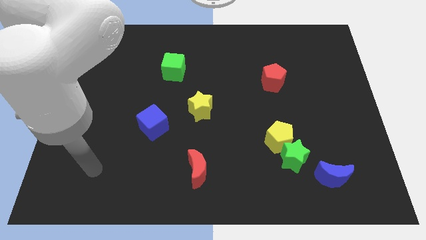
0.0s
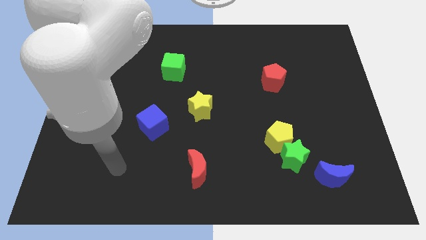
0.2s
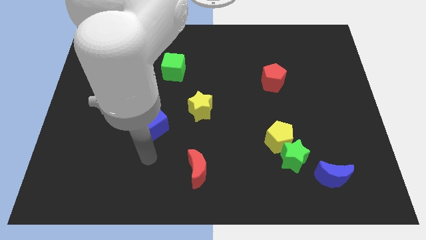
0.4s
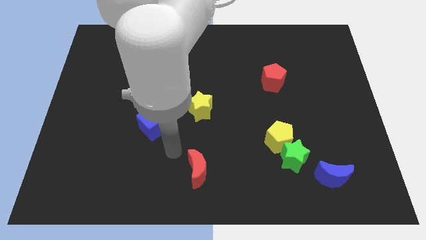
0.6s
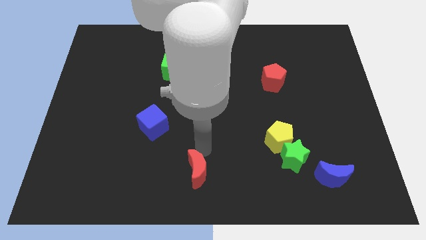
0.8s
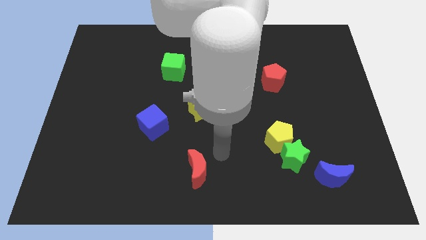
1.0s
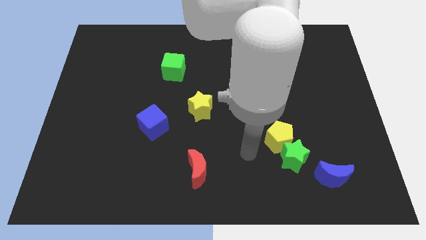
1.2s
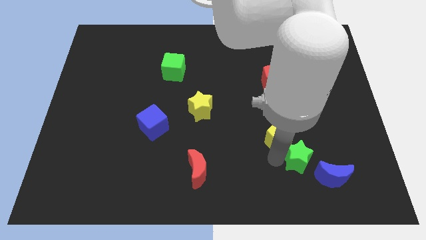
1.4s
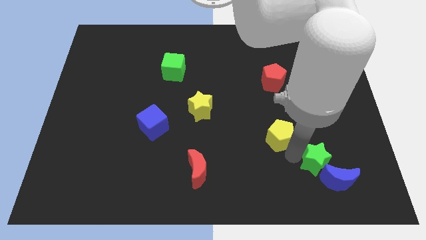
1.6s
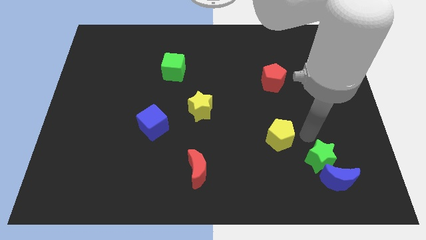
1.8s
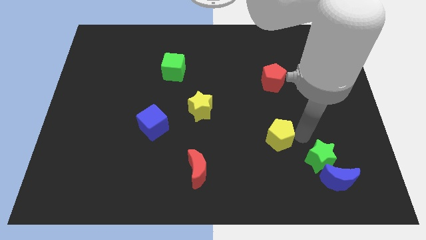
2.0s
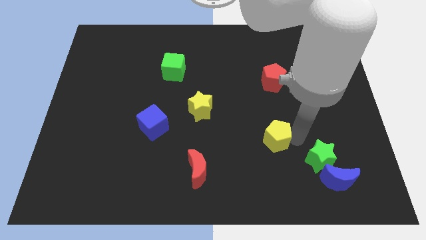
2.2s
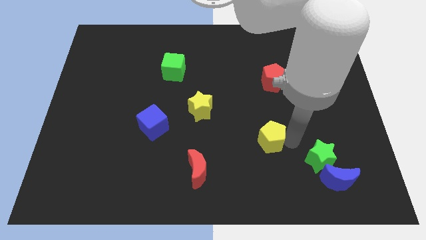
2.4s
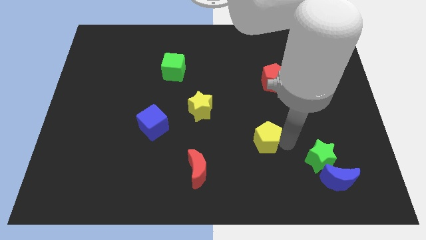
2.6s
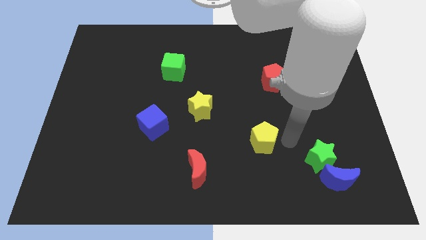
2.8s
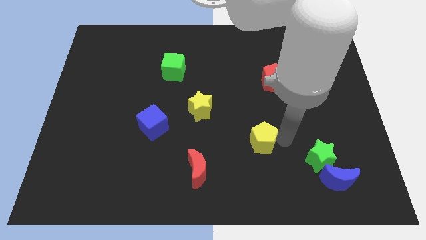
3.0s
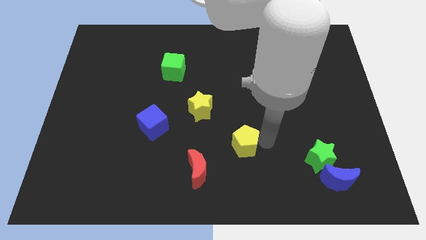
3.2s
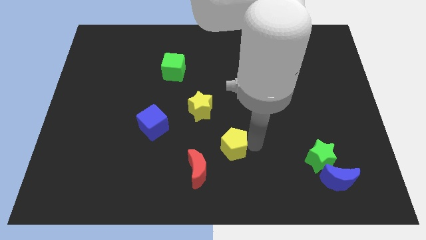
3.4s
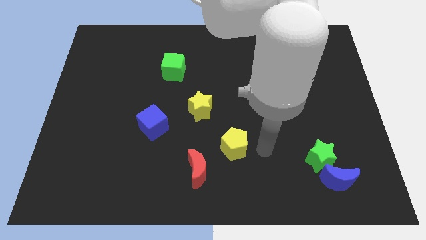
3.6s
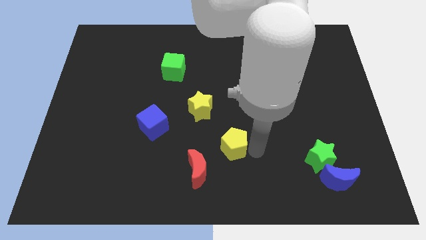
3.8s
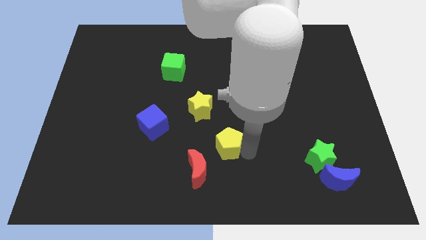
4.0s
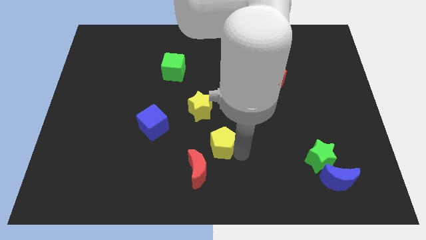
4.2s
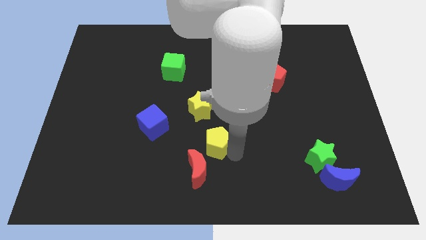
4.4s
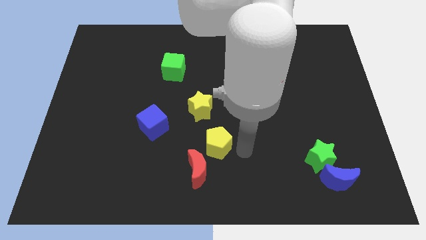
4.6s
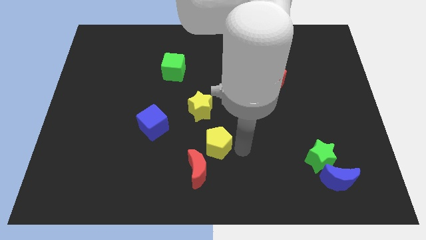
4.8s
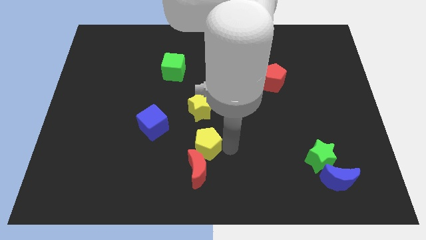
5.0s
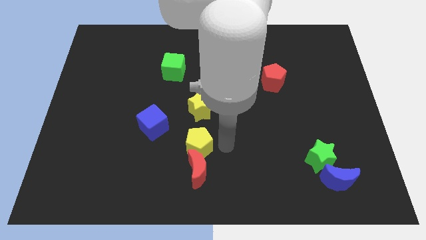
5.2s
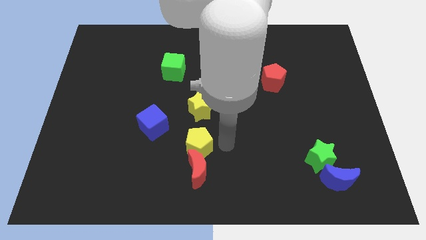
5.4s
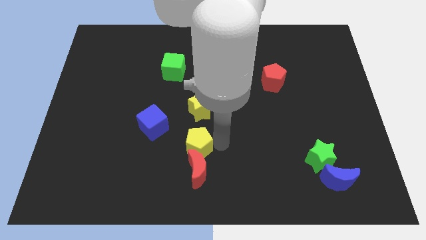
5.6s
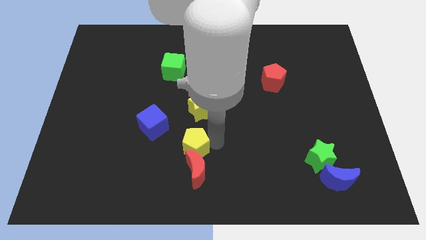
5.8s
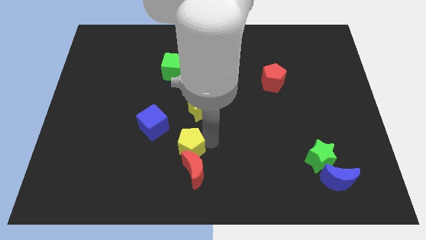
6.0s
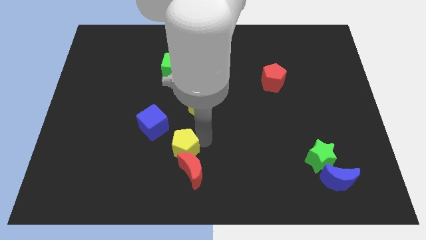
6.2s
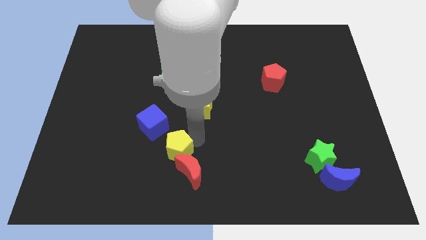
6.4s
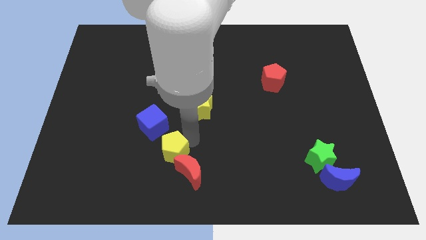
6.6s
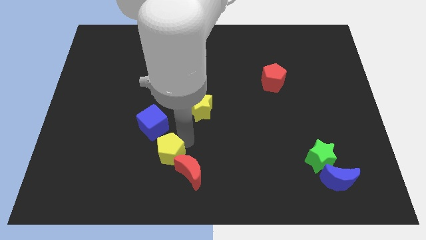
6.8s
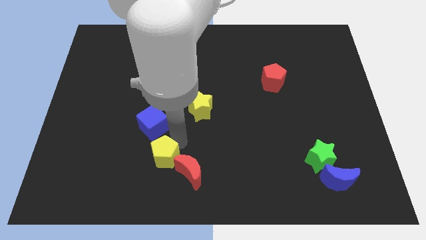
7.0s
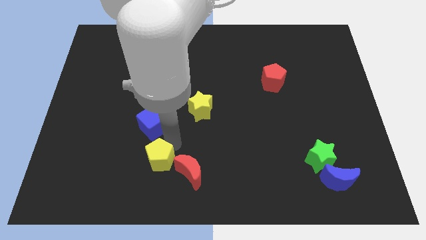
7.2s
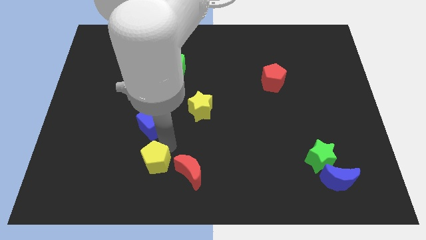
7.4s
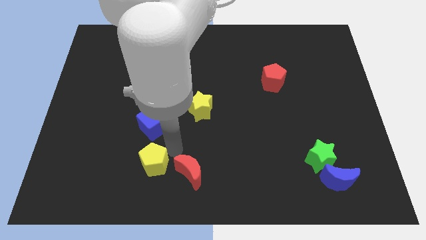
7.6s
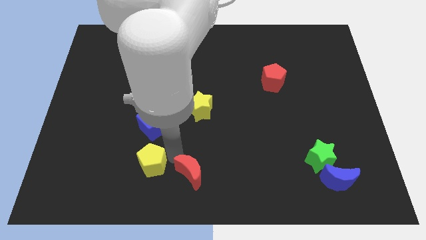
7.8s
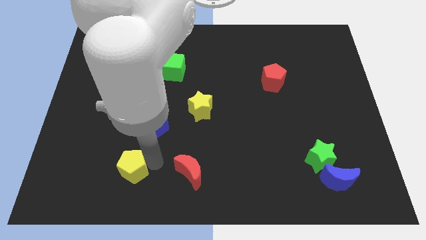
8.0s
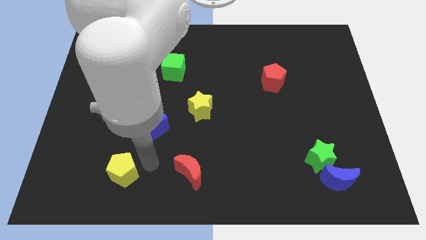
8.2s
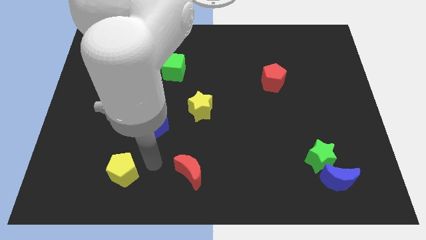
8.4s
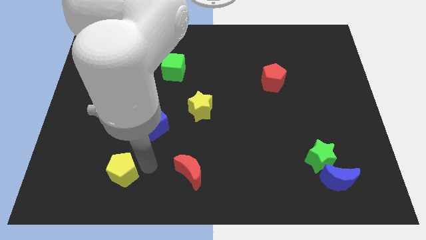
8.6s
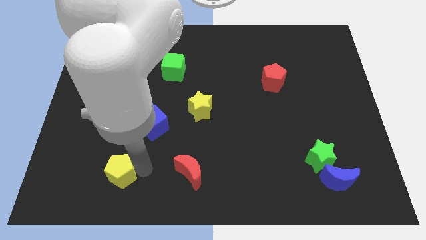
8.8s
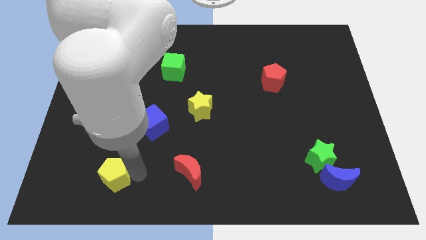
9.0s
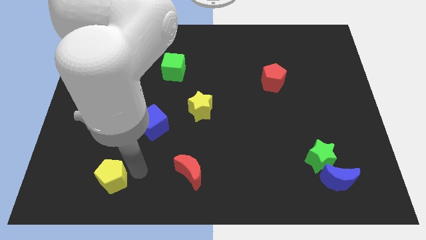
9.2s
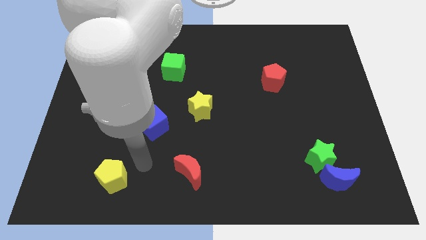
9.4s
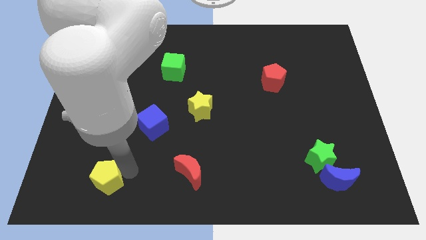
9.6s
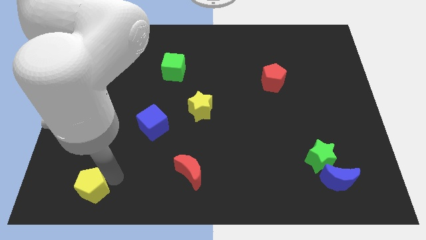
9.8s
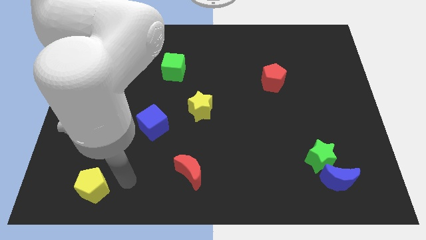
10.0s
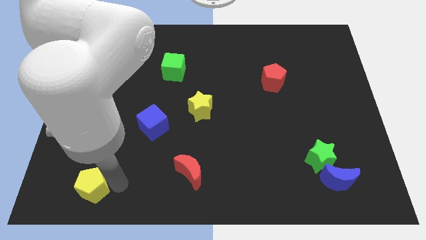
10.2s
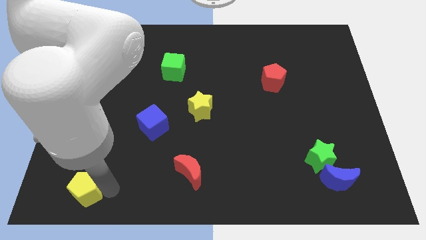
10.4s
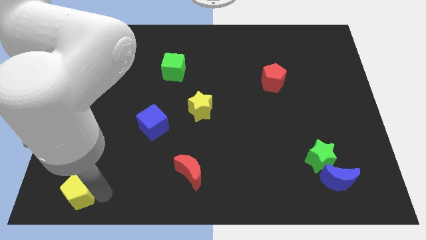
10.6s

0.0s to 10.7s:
move the yellow pentagon to the bottom left

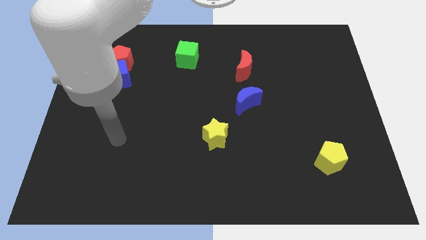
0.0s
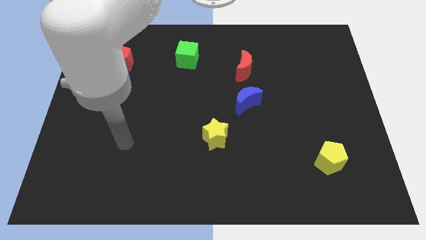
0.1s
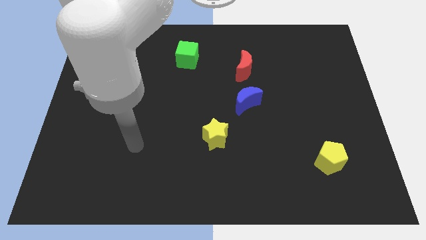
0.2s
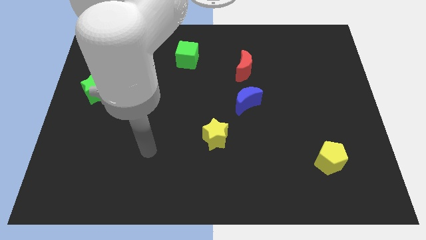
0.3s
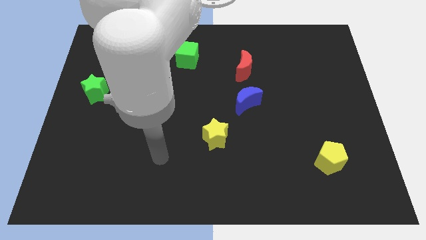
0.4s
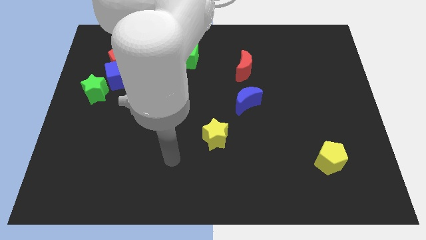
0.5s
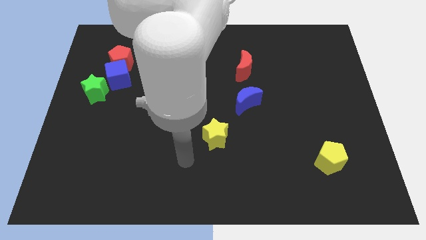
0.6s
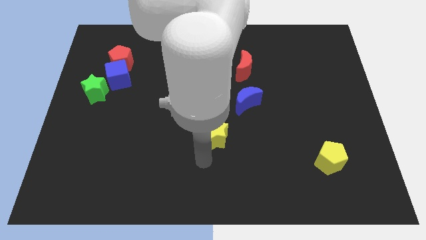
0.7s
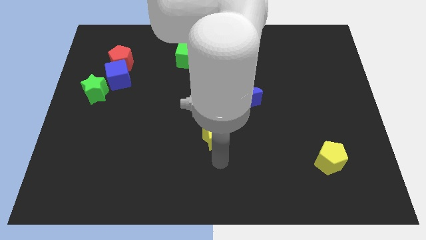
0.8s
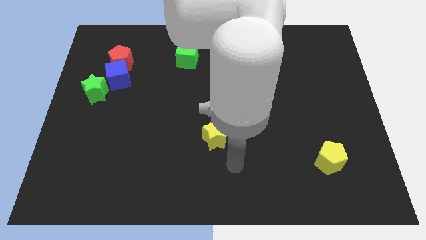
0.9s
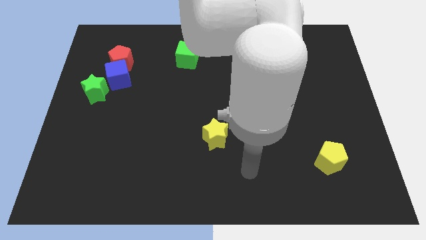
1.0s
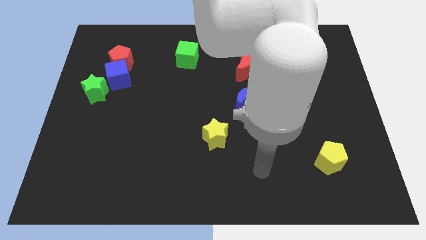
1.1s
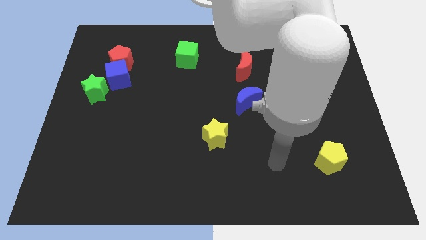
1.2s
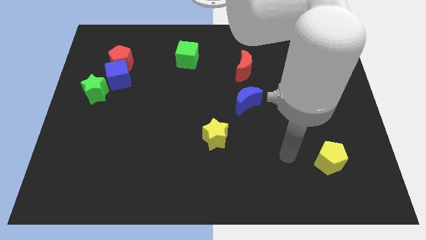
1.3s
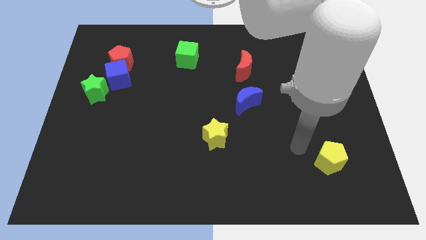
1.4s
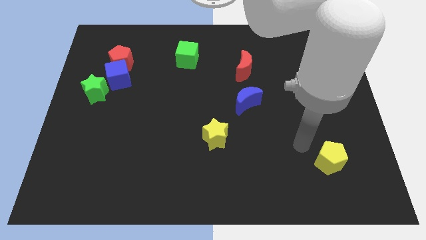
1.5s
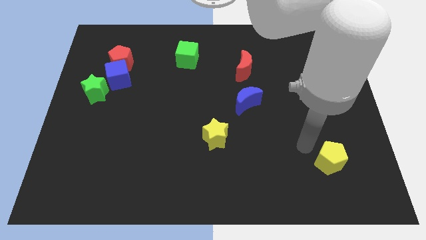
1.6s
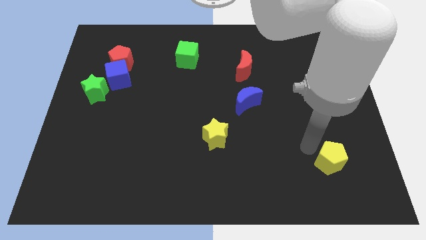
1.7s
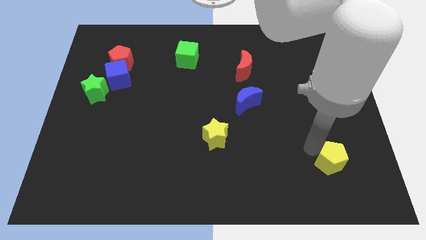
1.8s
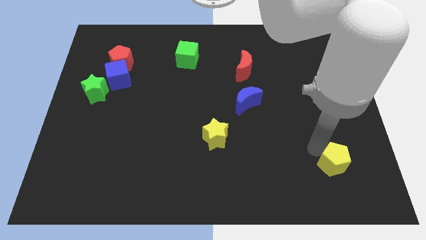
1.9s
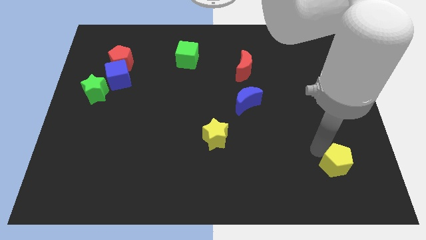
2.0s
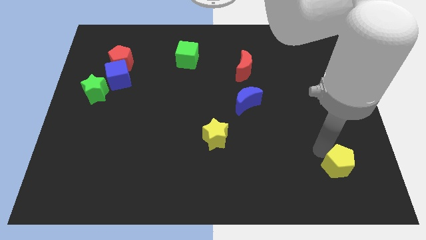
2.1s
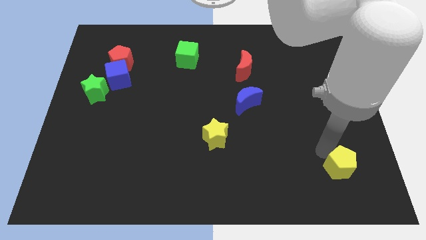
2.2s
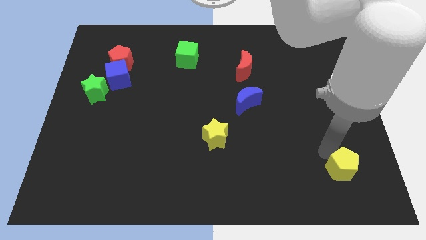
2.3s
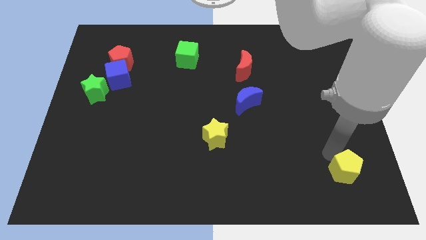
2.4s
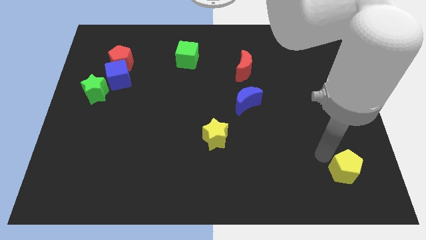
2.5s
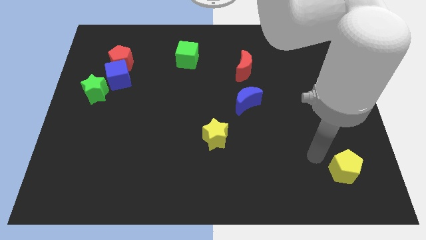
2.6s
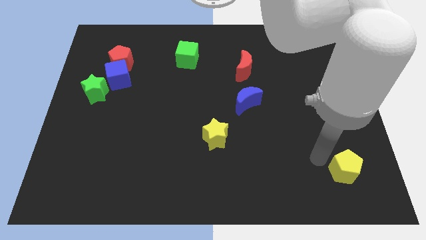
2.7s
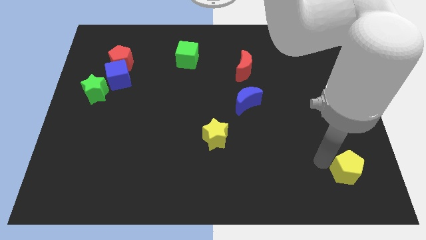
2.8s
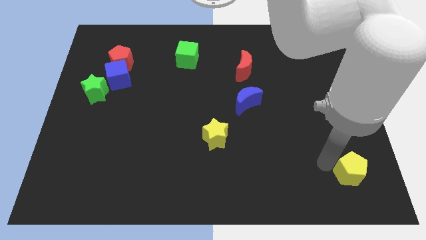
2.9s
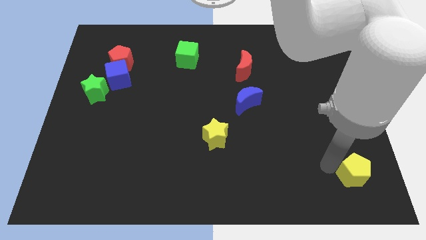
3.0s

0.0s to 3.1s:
slide the yellow pentagon to the bottom right corner
